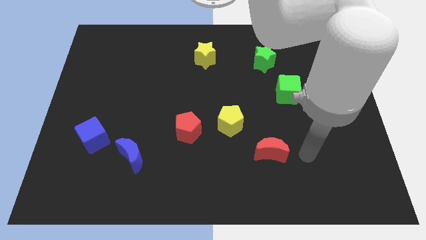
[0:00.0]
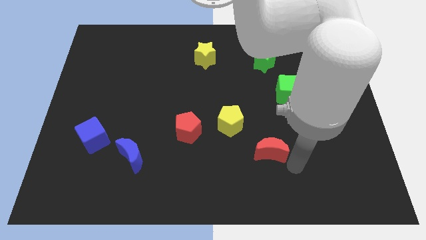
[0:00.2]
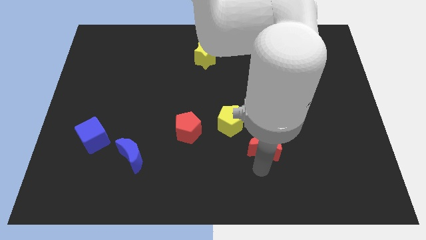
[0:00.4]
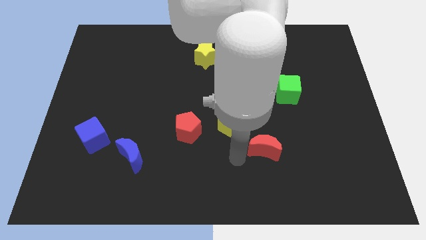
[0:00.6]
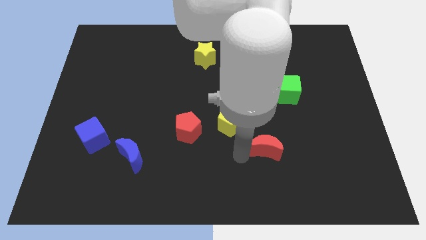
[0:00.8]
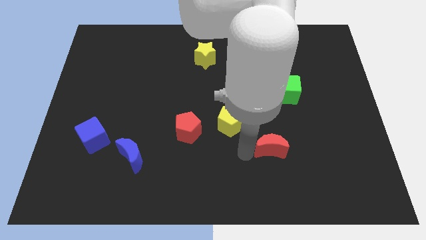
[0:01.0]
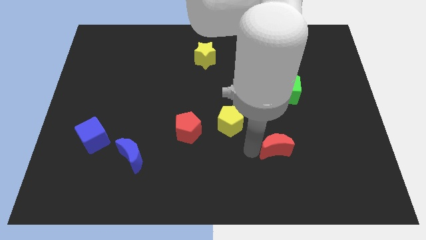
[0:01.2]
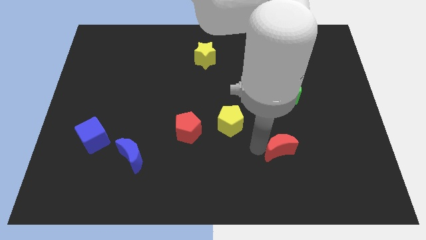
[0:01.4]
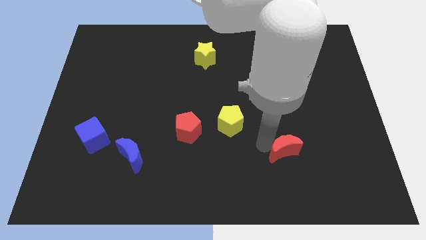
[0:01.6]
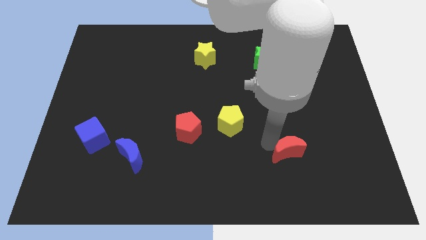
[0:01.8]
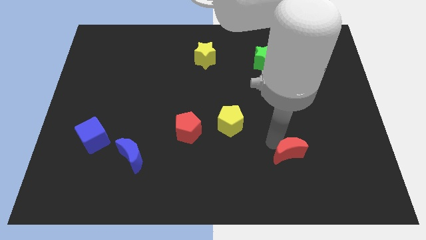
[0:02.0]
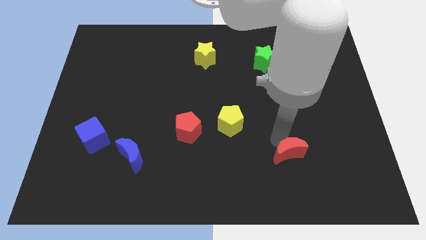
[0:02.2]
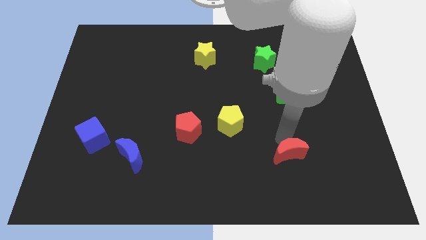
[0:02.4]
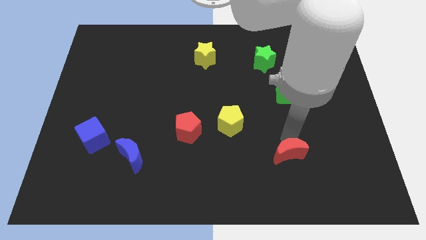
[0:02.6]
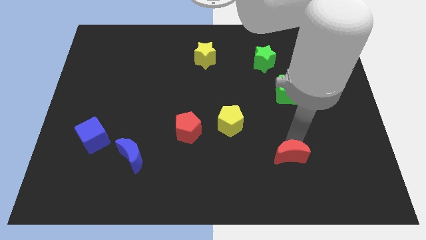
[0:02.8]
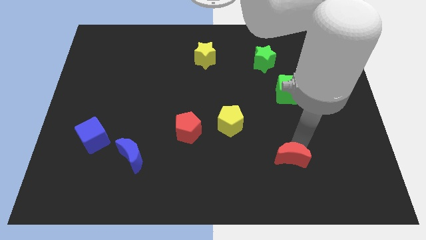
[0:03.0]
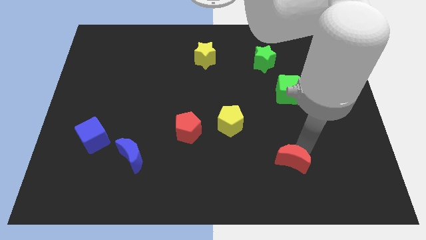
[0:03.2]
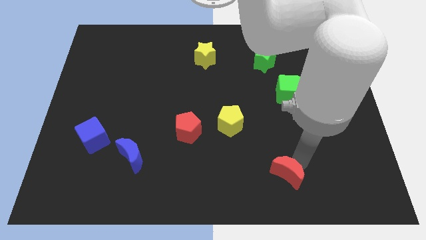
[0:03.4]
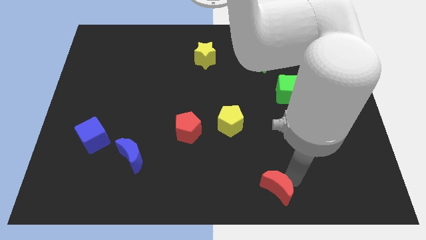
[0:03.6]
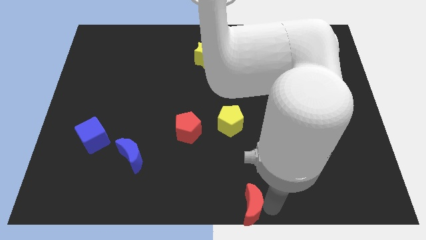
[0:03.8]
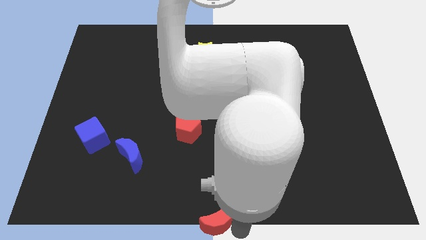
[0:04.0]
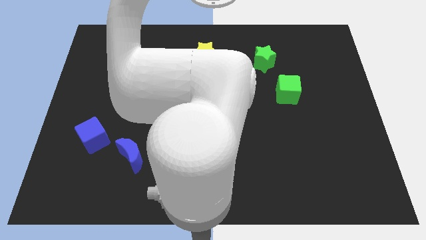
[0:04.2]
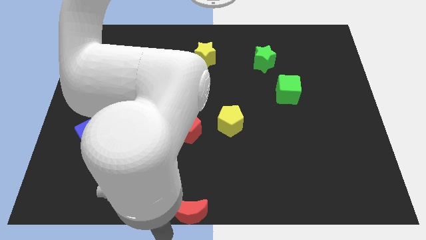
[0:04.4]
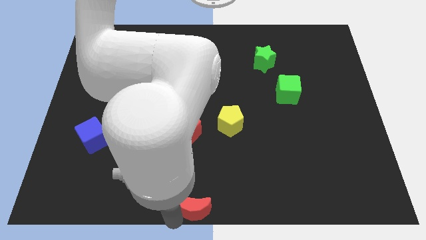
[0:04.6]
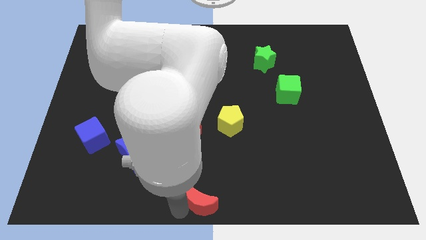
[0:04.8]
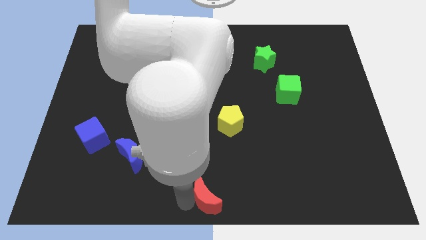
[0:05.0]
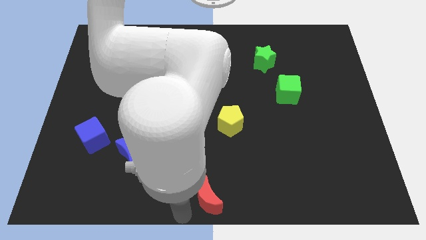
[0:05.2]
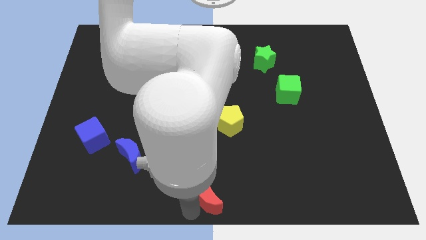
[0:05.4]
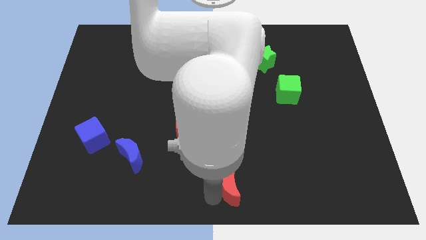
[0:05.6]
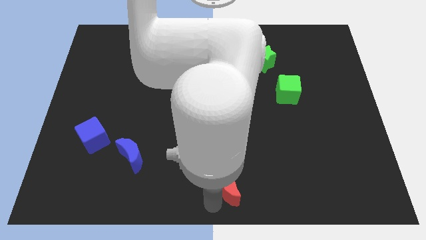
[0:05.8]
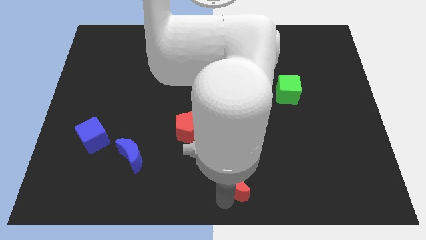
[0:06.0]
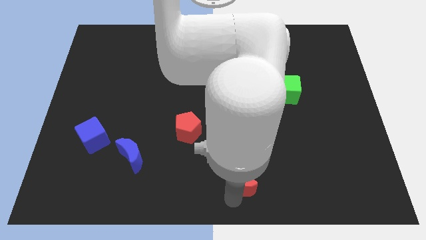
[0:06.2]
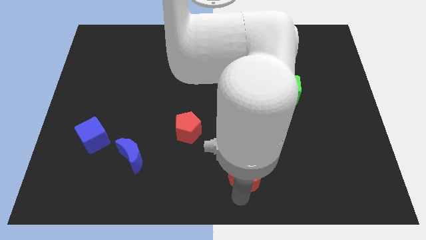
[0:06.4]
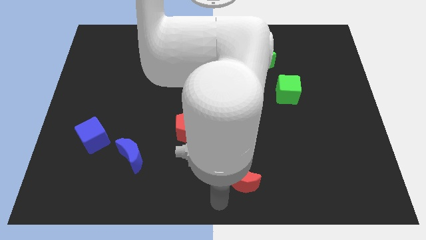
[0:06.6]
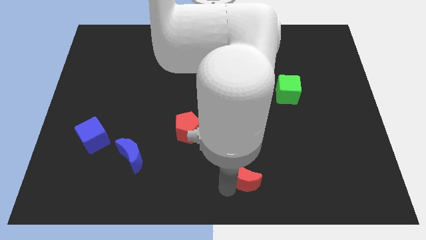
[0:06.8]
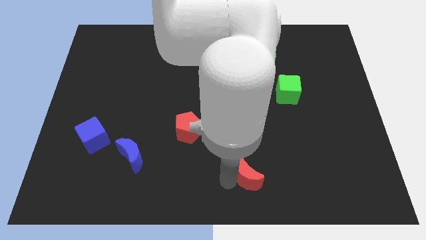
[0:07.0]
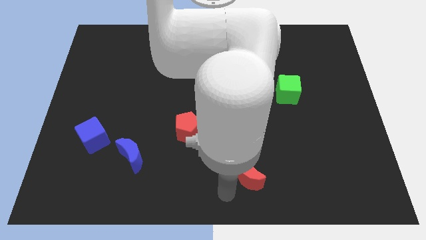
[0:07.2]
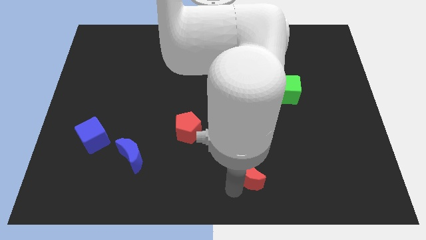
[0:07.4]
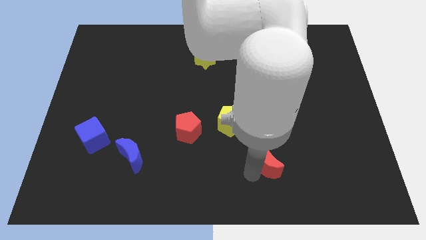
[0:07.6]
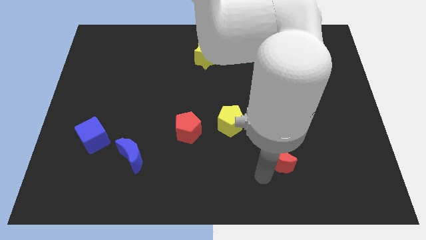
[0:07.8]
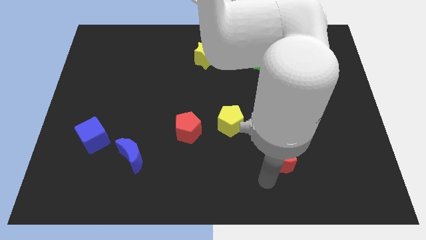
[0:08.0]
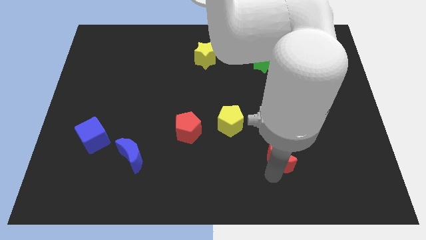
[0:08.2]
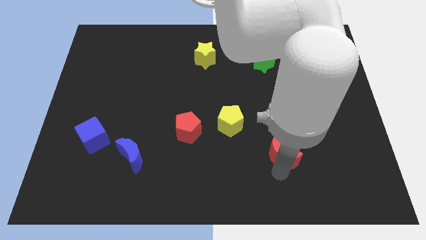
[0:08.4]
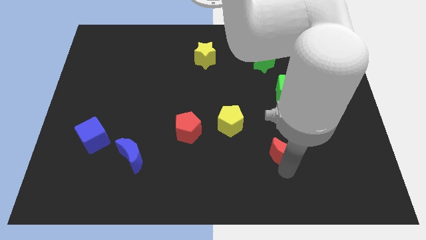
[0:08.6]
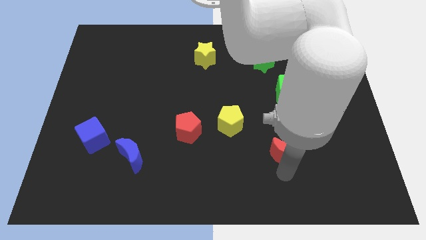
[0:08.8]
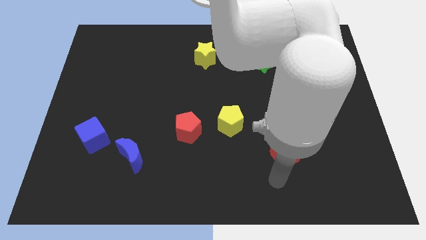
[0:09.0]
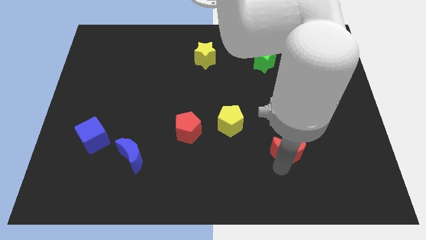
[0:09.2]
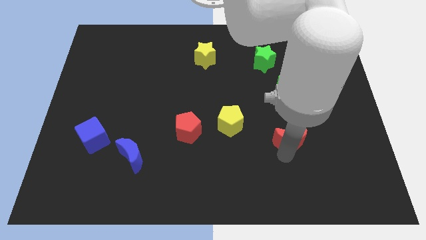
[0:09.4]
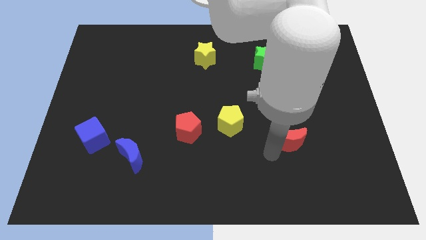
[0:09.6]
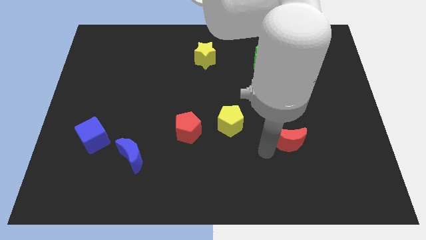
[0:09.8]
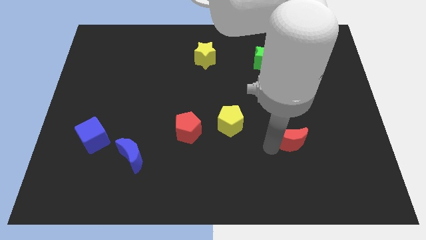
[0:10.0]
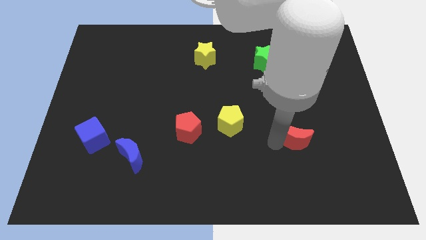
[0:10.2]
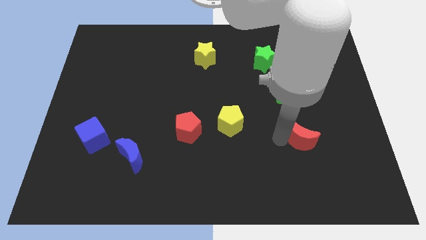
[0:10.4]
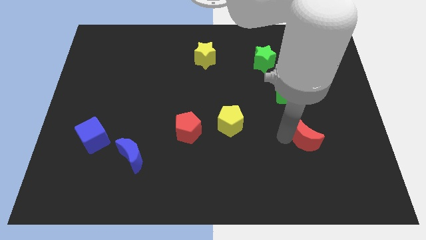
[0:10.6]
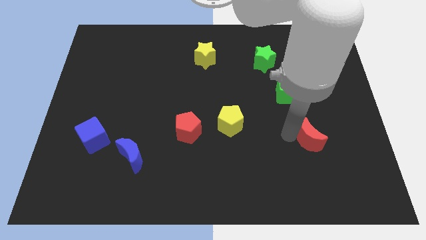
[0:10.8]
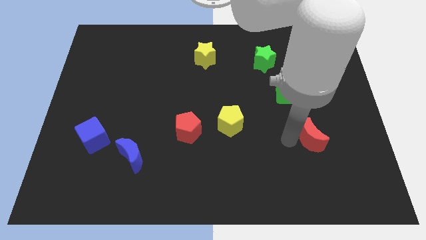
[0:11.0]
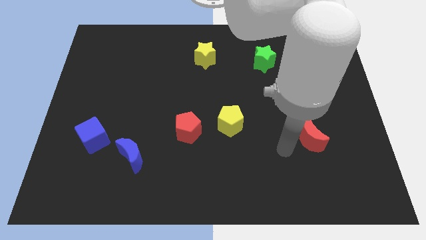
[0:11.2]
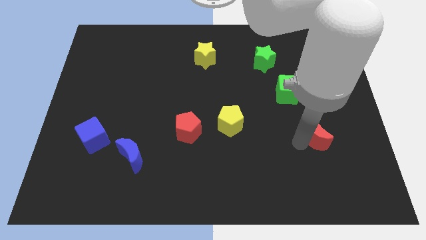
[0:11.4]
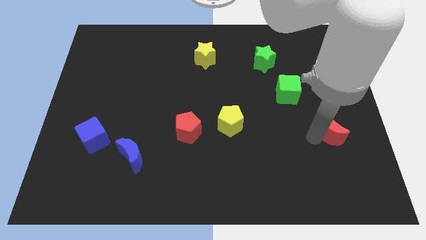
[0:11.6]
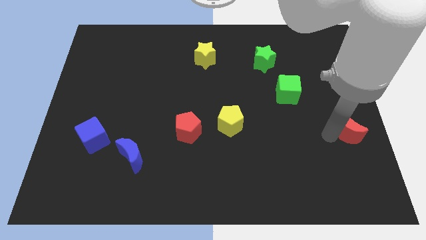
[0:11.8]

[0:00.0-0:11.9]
push the red moon to the center right
